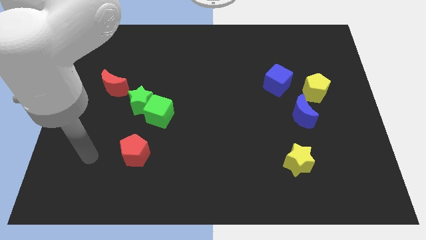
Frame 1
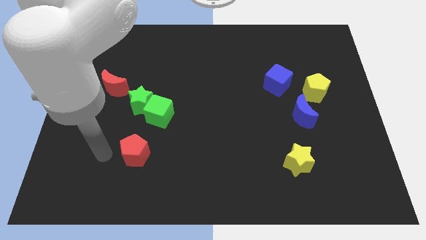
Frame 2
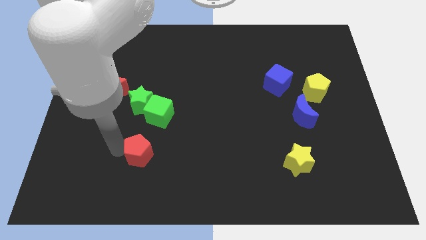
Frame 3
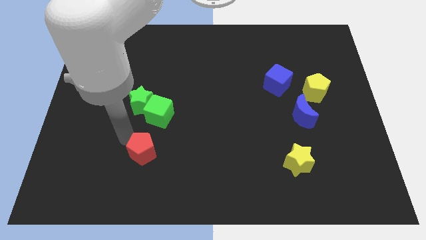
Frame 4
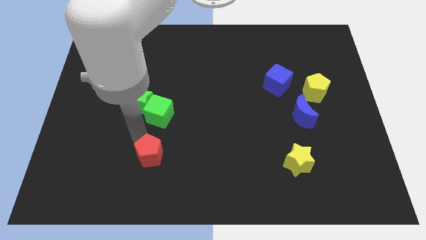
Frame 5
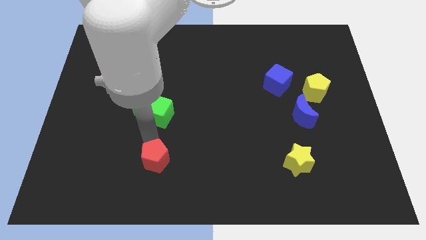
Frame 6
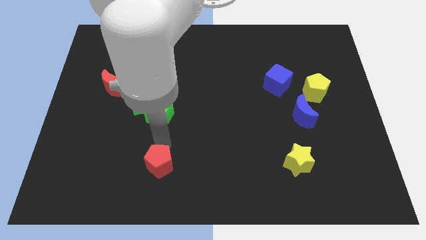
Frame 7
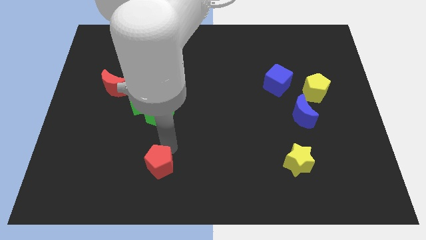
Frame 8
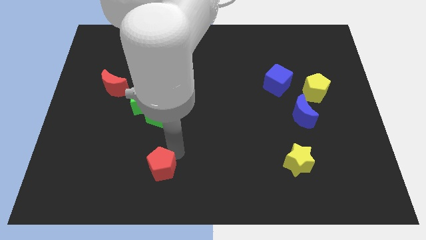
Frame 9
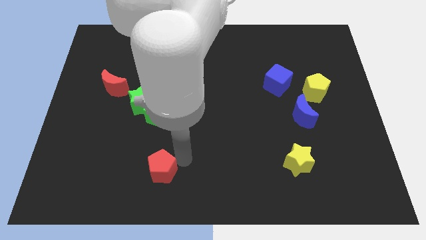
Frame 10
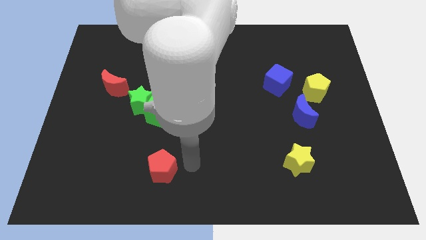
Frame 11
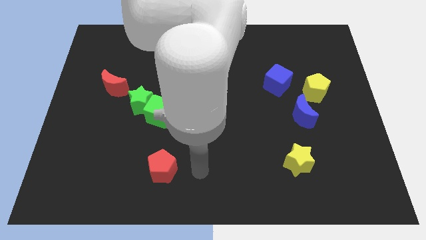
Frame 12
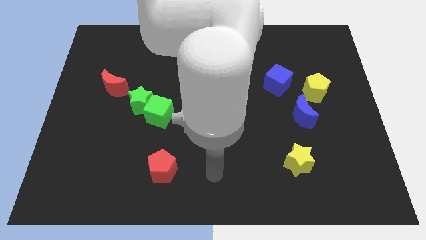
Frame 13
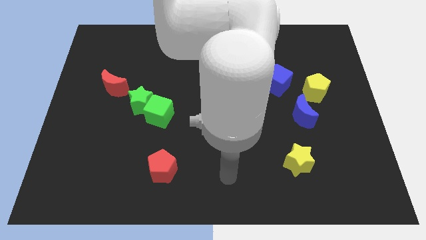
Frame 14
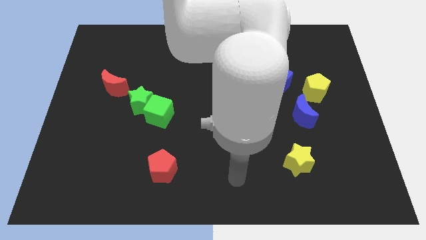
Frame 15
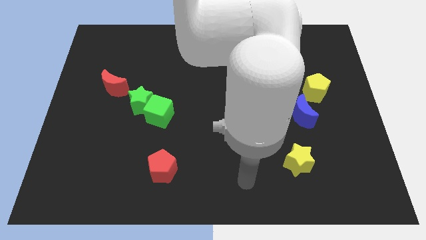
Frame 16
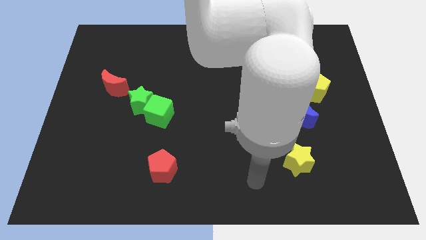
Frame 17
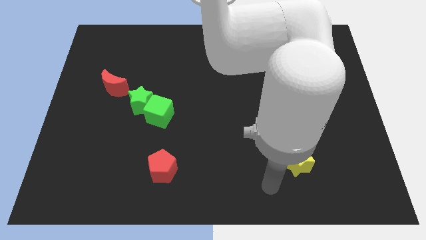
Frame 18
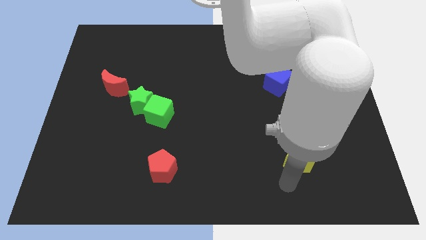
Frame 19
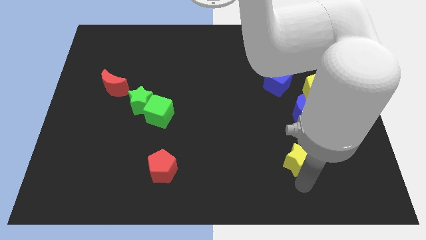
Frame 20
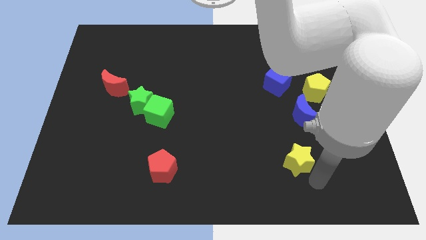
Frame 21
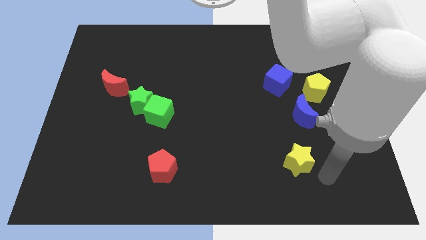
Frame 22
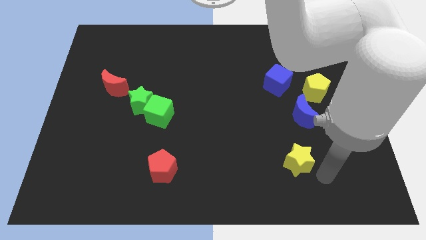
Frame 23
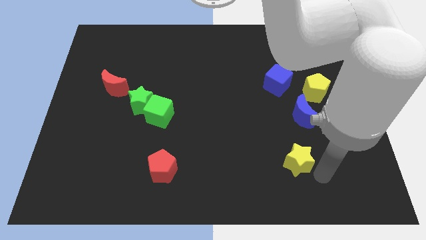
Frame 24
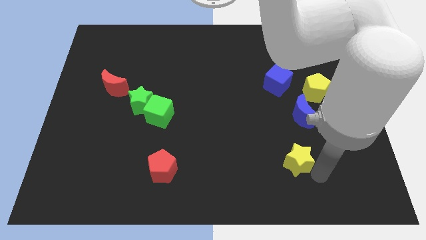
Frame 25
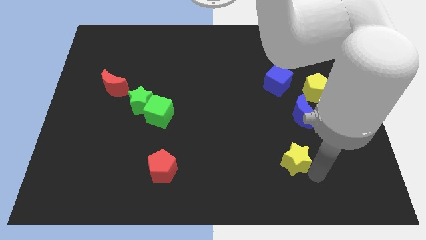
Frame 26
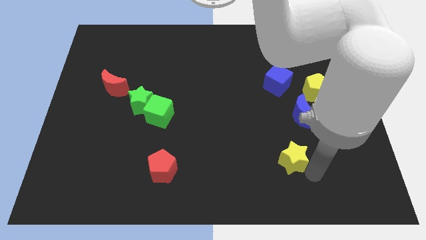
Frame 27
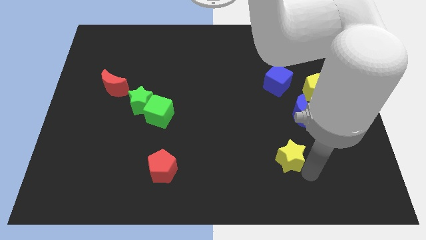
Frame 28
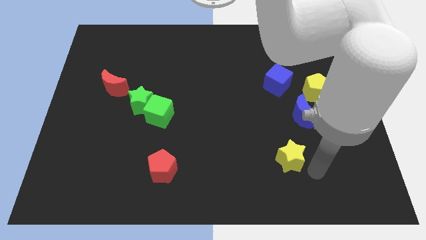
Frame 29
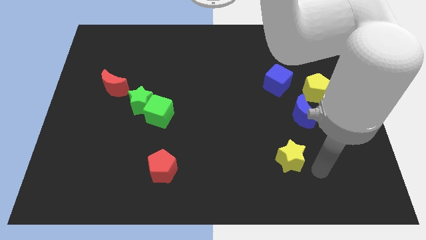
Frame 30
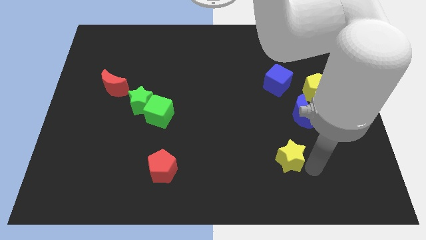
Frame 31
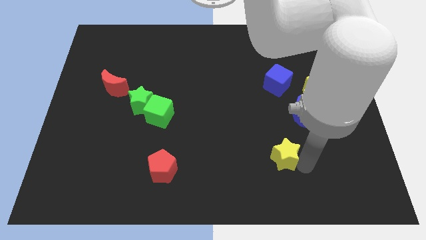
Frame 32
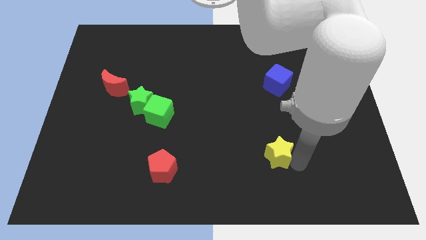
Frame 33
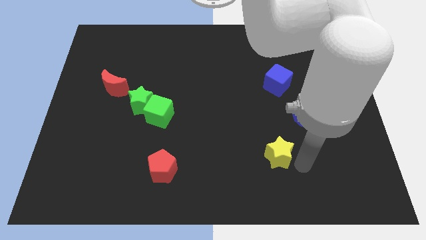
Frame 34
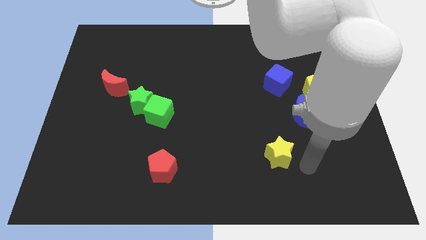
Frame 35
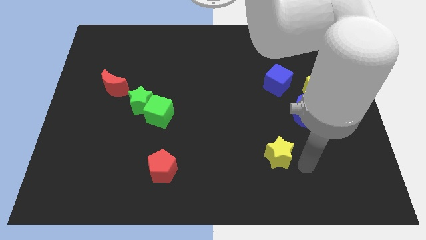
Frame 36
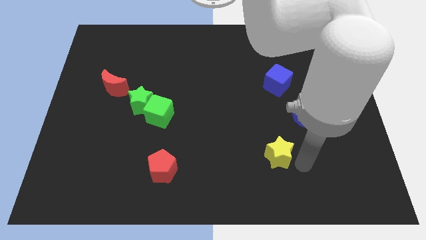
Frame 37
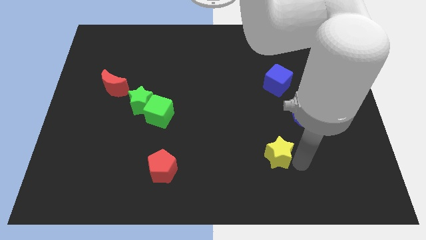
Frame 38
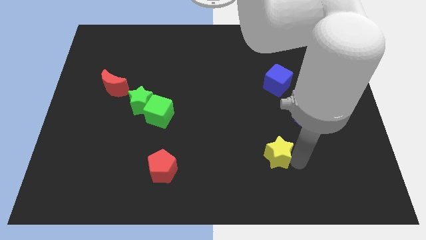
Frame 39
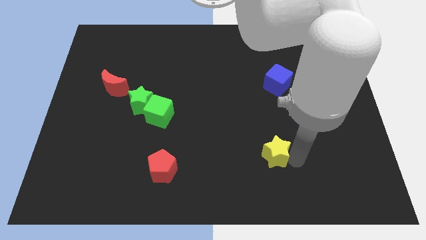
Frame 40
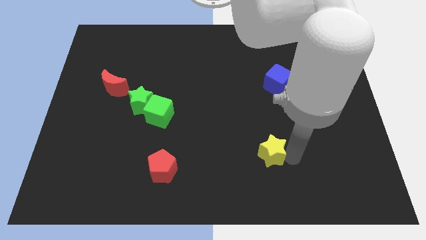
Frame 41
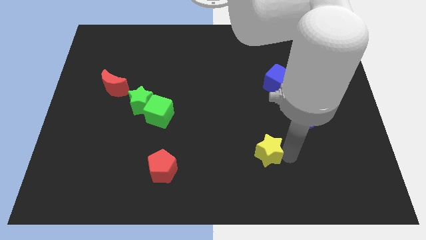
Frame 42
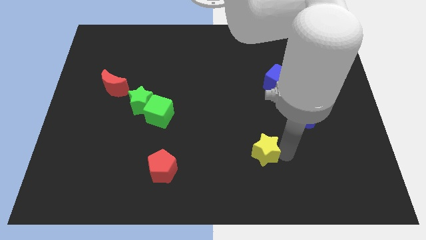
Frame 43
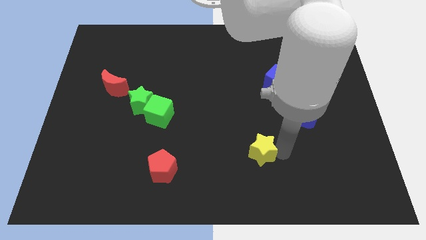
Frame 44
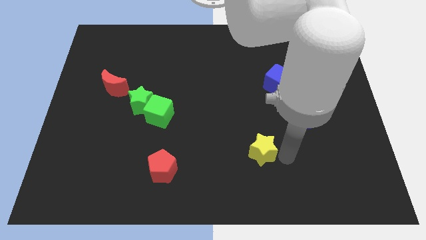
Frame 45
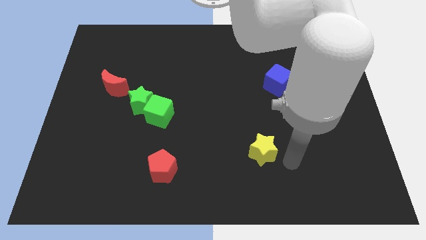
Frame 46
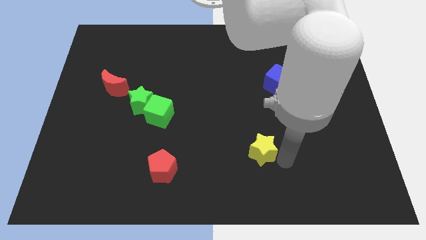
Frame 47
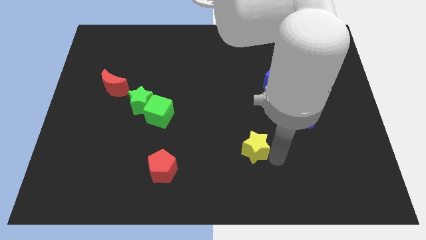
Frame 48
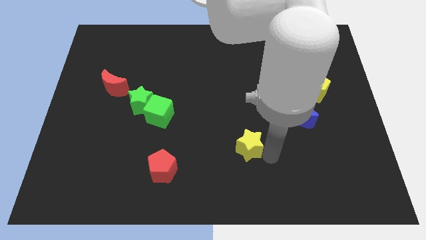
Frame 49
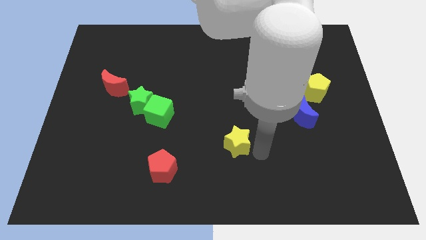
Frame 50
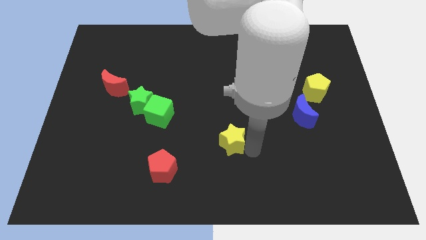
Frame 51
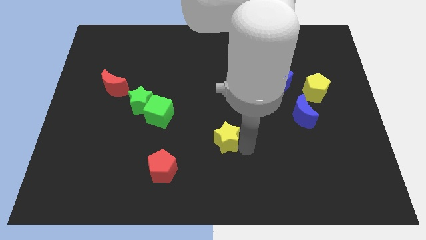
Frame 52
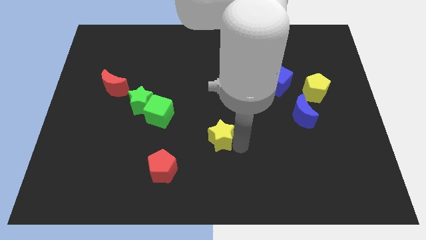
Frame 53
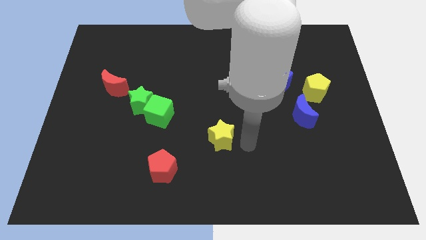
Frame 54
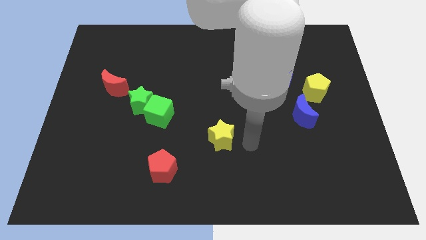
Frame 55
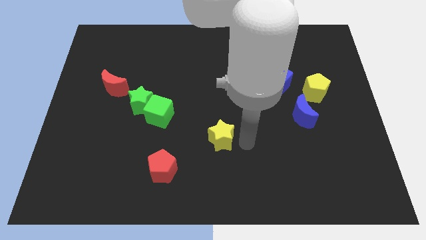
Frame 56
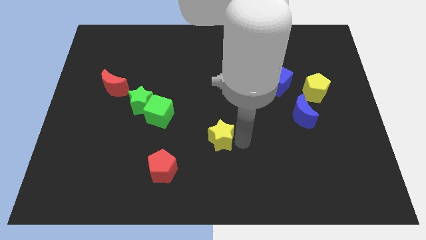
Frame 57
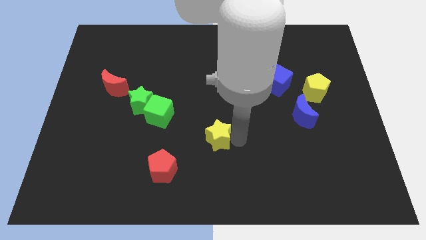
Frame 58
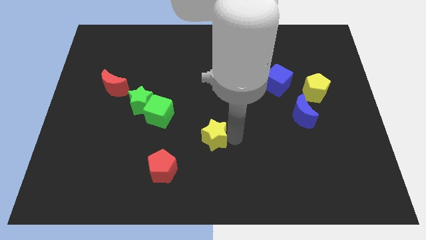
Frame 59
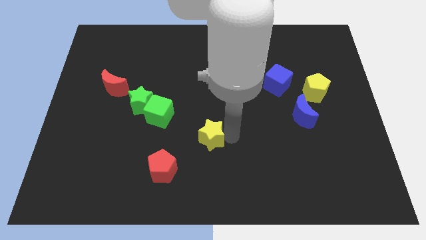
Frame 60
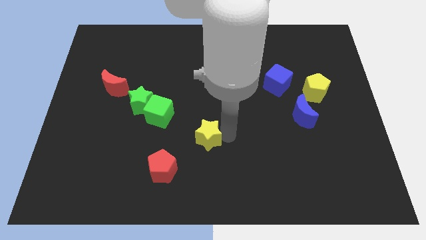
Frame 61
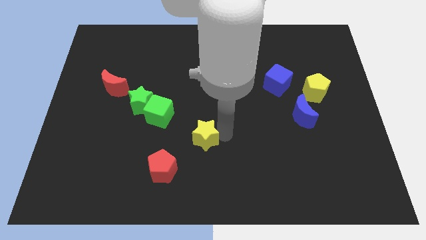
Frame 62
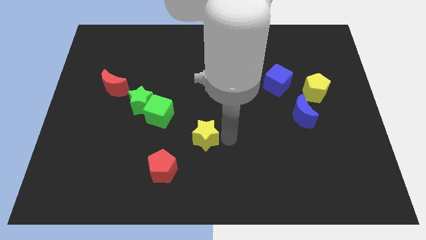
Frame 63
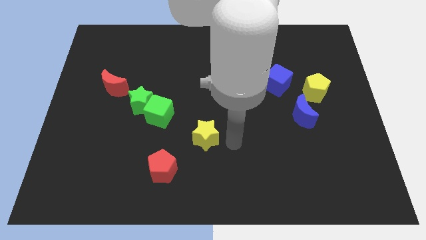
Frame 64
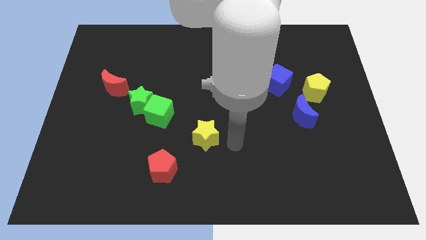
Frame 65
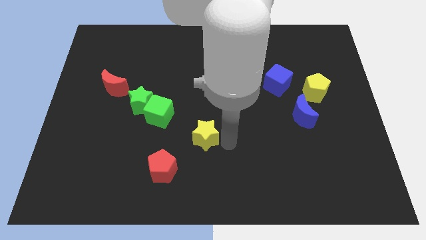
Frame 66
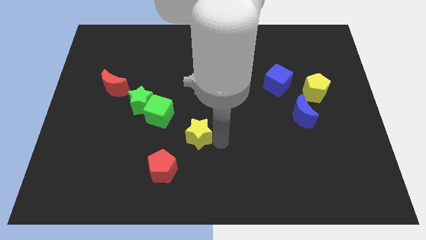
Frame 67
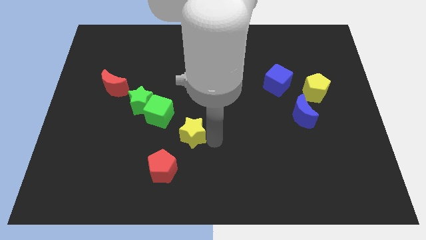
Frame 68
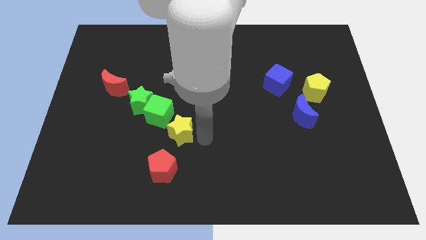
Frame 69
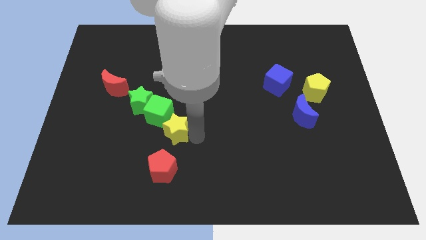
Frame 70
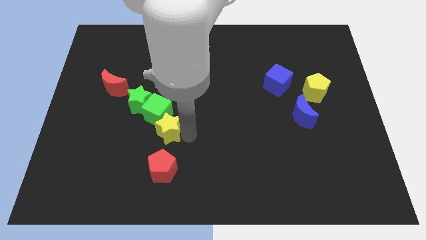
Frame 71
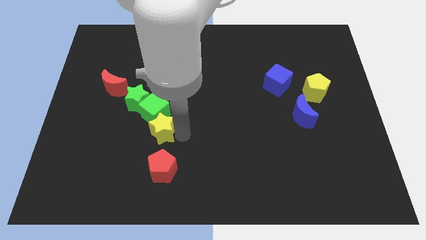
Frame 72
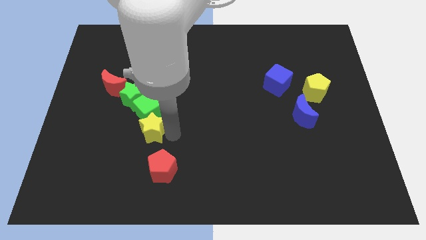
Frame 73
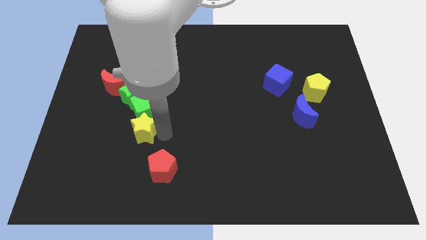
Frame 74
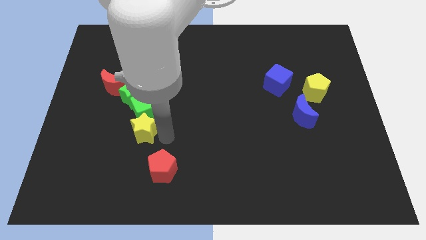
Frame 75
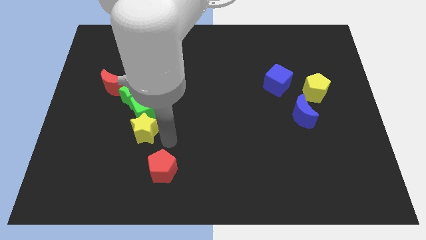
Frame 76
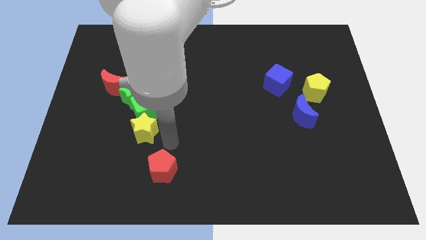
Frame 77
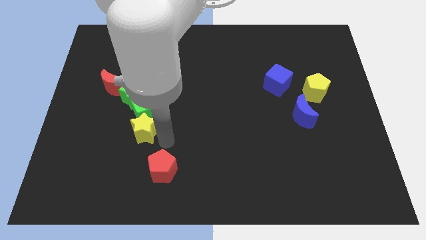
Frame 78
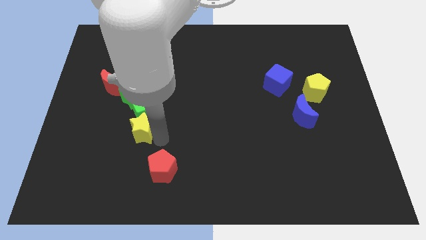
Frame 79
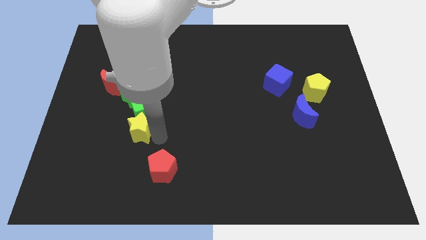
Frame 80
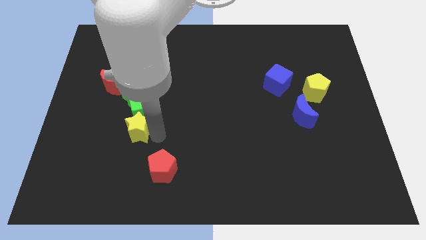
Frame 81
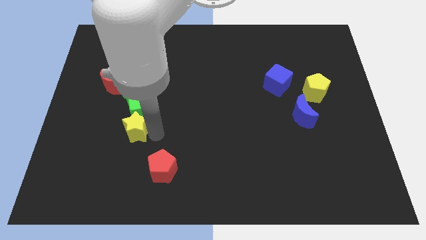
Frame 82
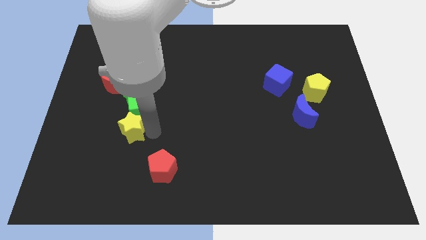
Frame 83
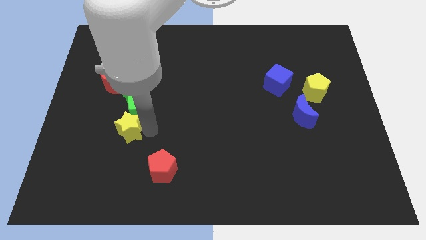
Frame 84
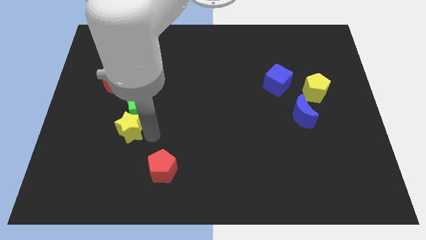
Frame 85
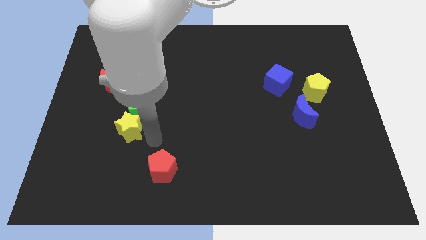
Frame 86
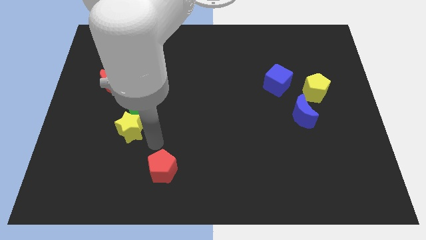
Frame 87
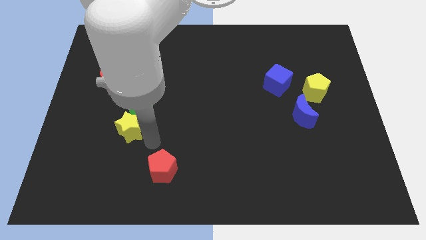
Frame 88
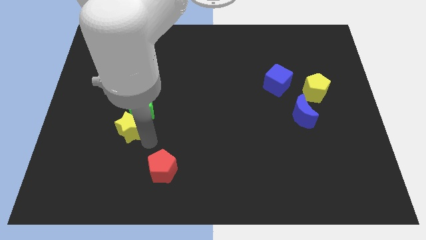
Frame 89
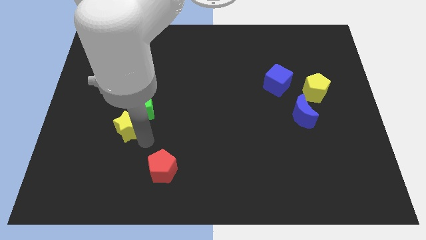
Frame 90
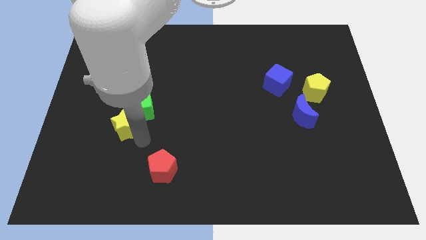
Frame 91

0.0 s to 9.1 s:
move the yellow star to the bottom of the red moon
